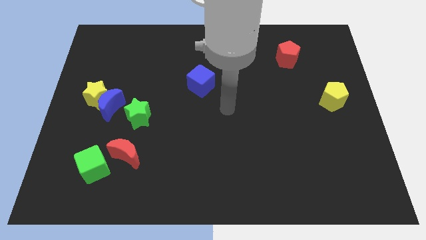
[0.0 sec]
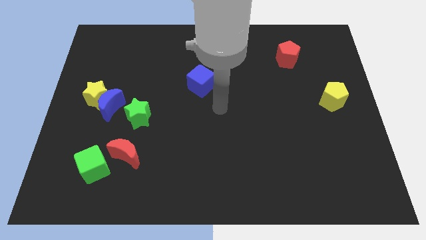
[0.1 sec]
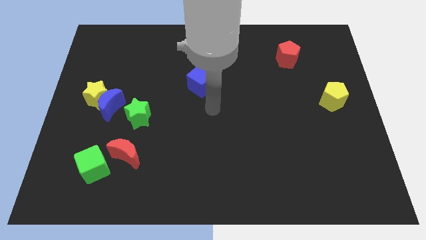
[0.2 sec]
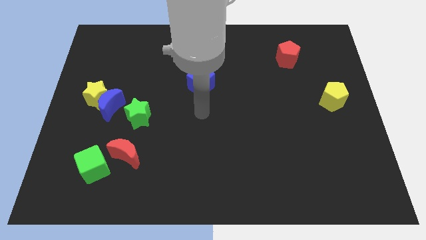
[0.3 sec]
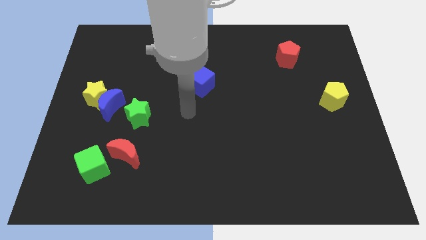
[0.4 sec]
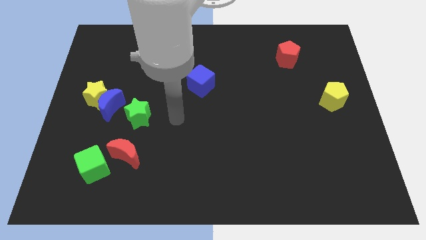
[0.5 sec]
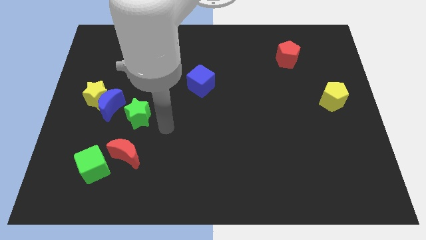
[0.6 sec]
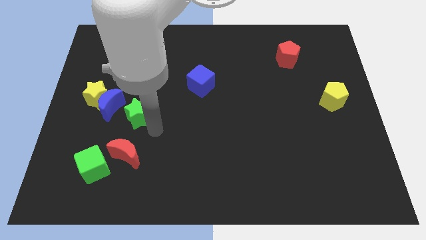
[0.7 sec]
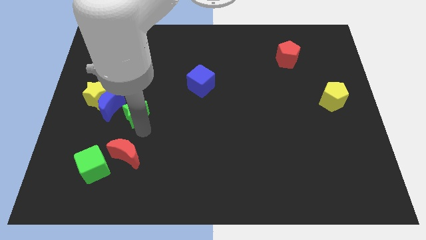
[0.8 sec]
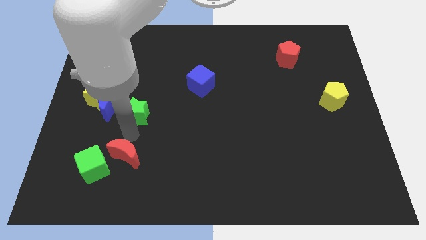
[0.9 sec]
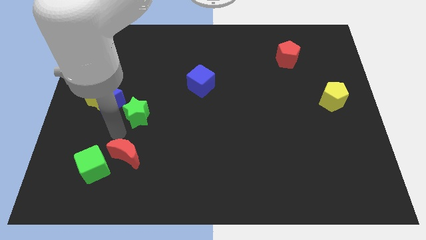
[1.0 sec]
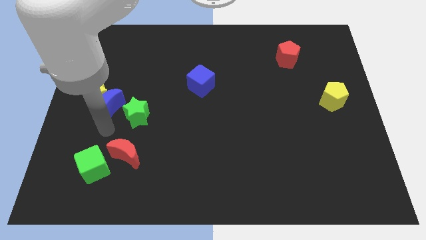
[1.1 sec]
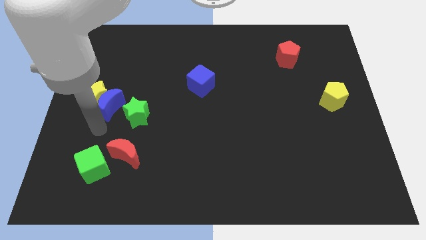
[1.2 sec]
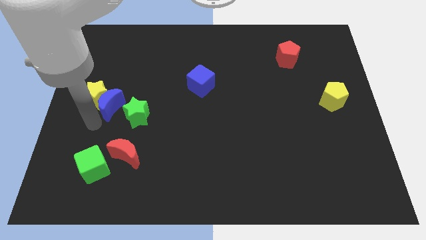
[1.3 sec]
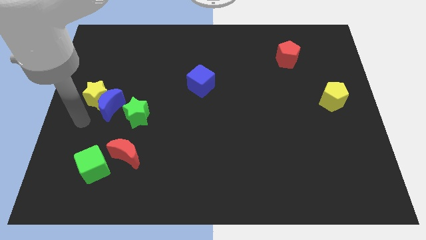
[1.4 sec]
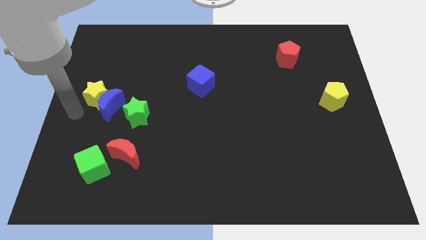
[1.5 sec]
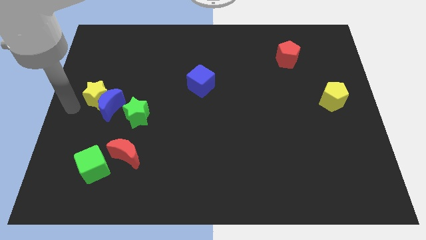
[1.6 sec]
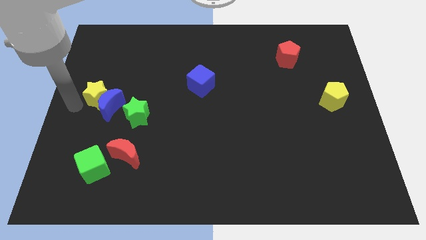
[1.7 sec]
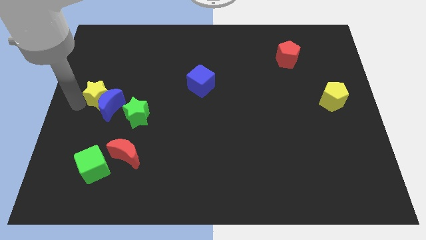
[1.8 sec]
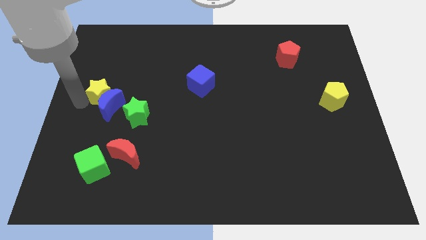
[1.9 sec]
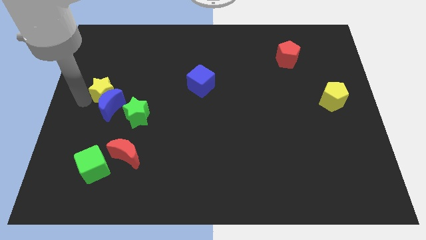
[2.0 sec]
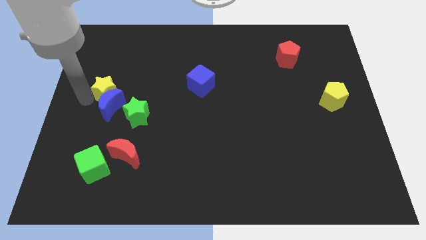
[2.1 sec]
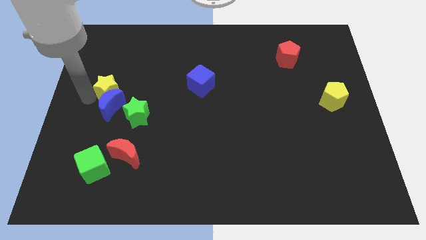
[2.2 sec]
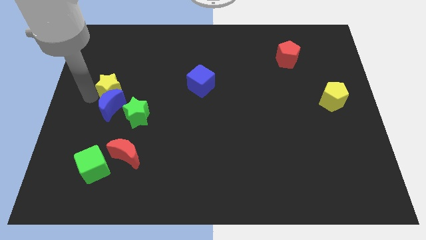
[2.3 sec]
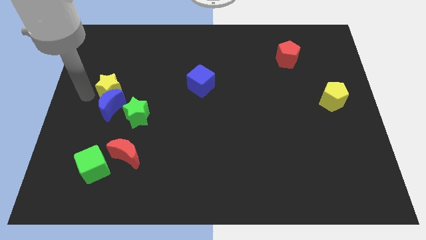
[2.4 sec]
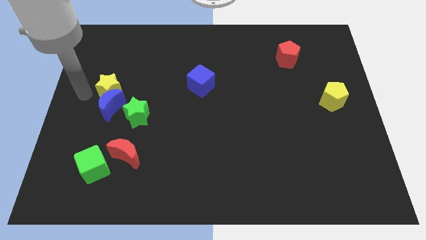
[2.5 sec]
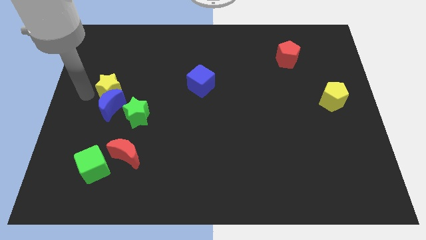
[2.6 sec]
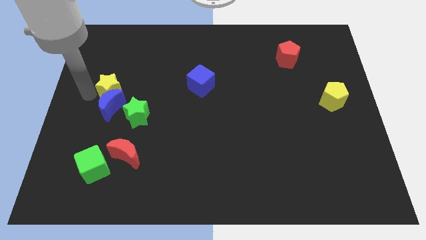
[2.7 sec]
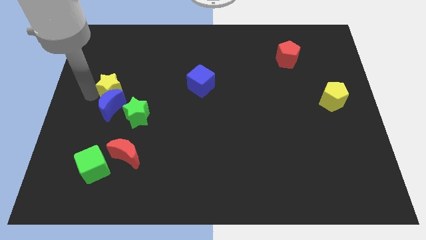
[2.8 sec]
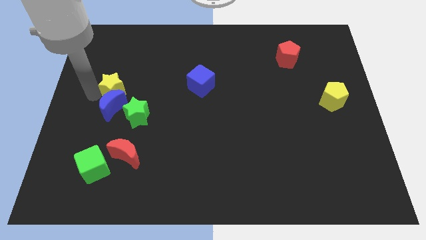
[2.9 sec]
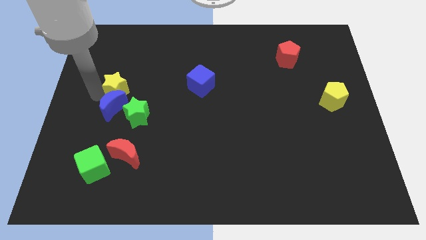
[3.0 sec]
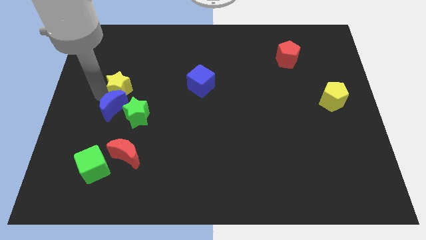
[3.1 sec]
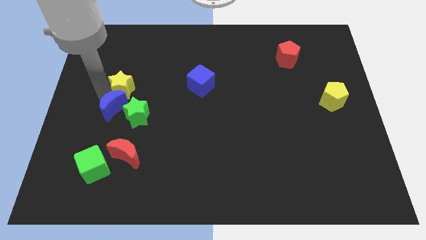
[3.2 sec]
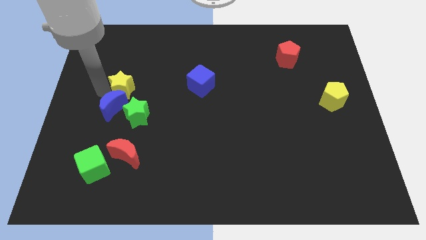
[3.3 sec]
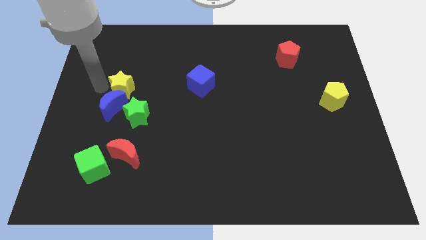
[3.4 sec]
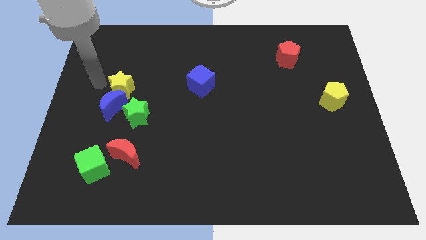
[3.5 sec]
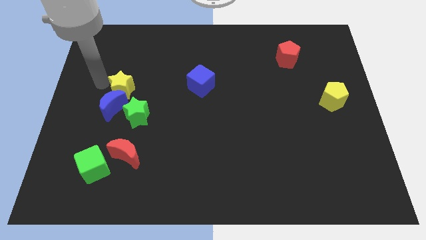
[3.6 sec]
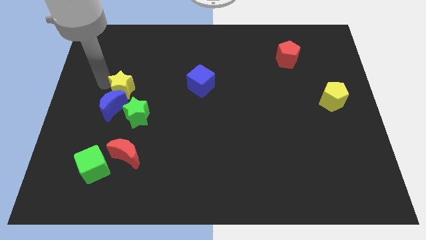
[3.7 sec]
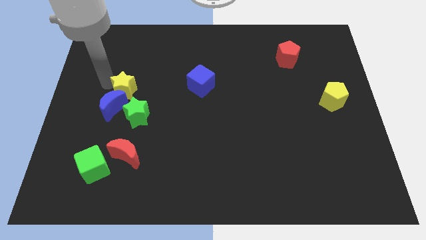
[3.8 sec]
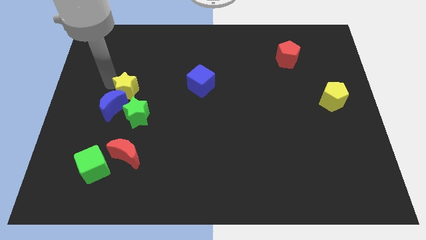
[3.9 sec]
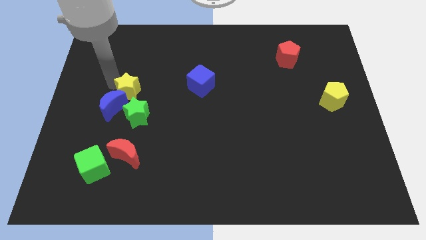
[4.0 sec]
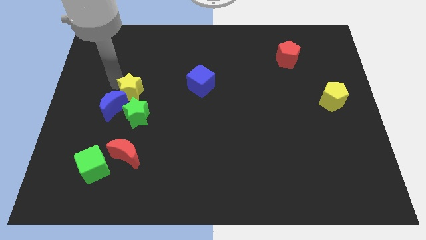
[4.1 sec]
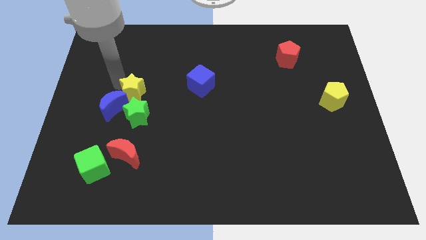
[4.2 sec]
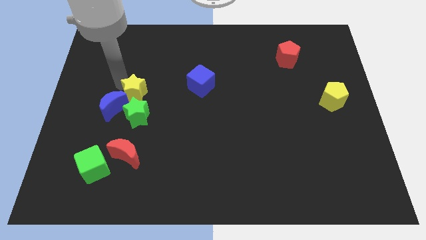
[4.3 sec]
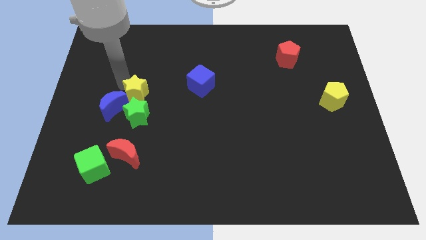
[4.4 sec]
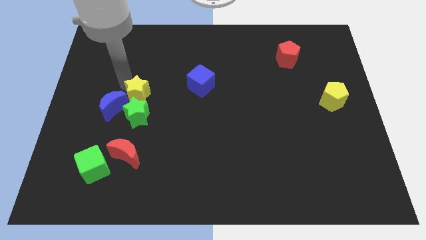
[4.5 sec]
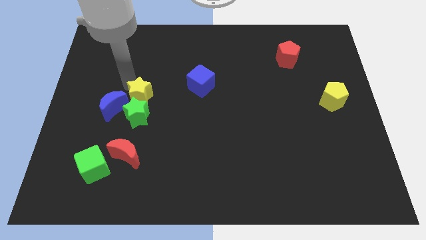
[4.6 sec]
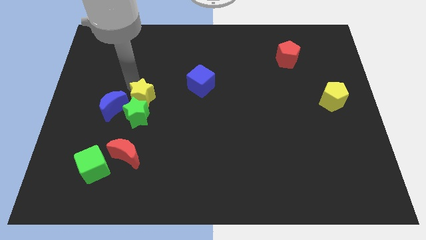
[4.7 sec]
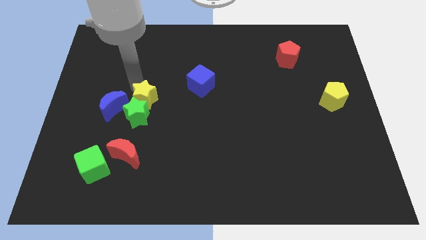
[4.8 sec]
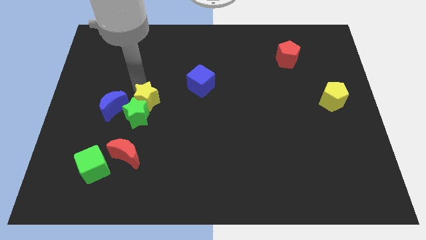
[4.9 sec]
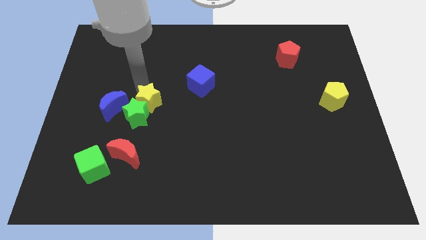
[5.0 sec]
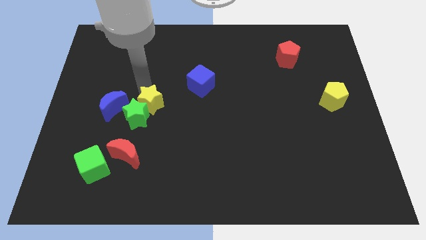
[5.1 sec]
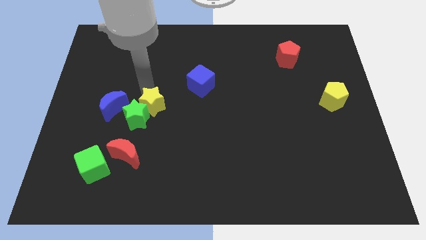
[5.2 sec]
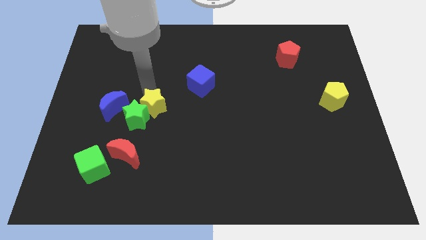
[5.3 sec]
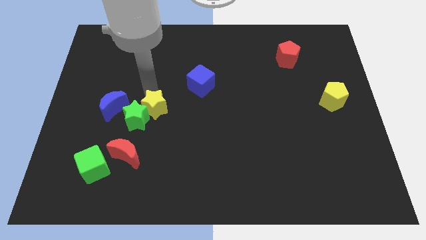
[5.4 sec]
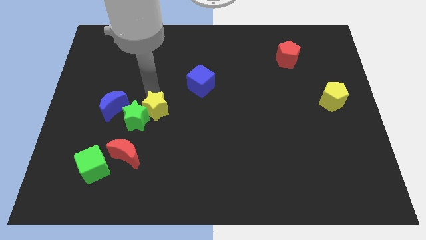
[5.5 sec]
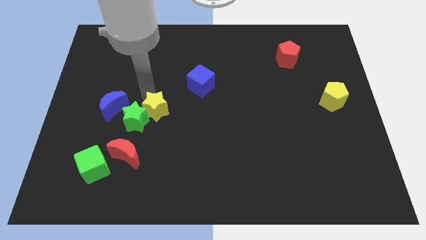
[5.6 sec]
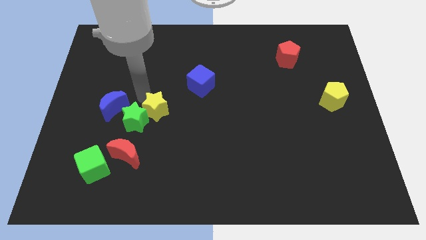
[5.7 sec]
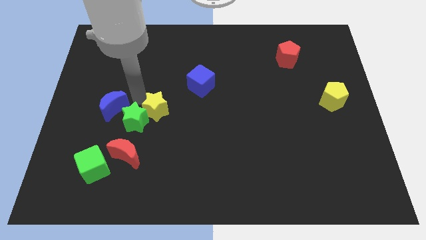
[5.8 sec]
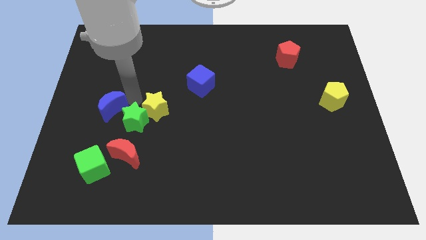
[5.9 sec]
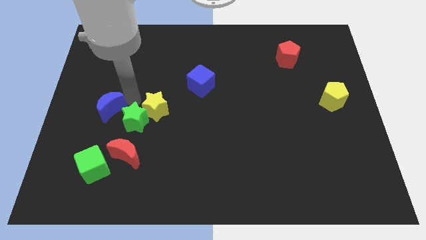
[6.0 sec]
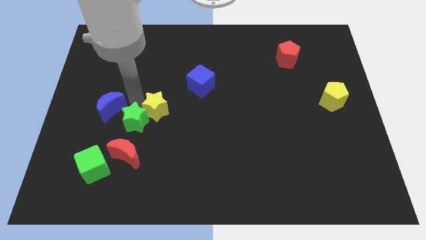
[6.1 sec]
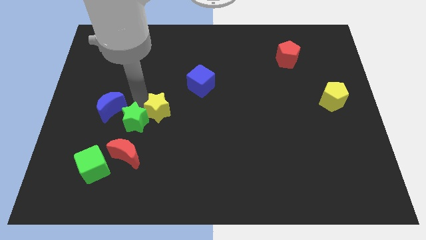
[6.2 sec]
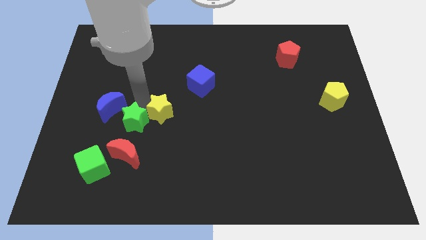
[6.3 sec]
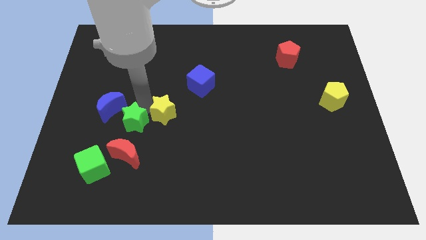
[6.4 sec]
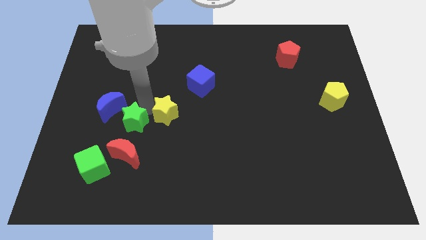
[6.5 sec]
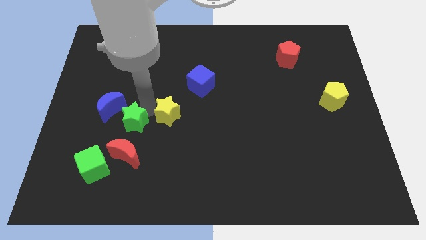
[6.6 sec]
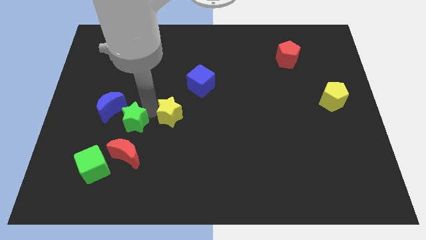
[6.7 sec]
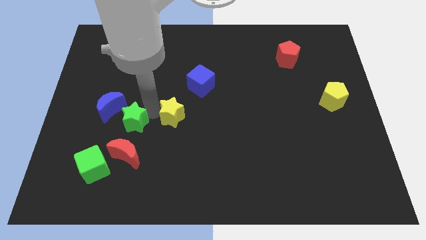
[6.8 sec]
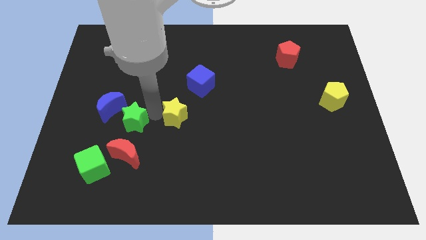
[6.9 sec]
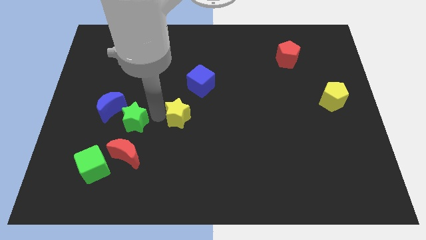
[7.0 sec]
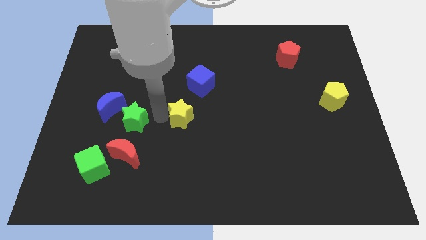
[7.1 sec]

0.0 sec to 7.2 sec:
slide the yellow star to the bottom side of the blue cube

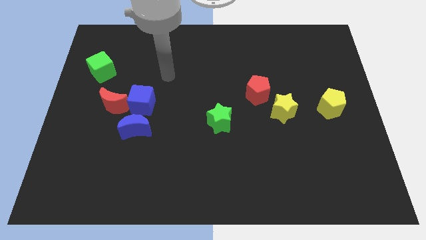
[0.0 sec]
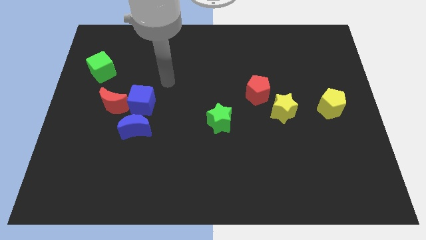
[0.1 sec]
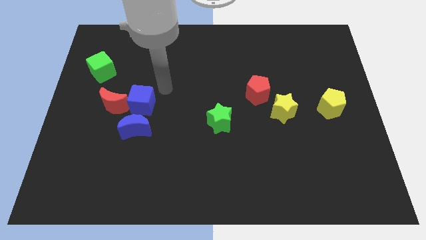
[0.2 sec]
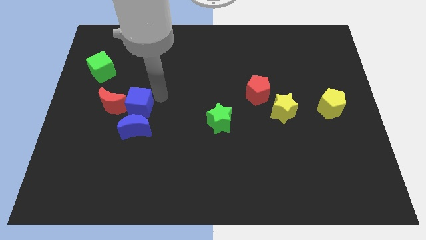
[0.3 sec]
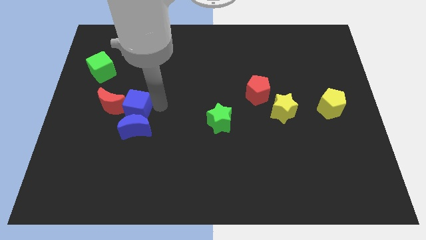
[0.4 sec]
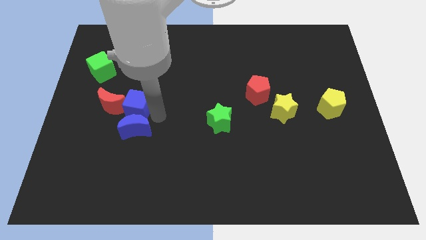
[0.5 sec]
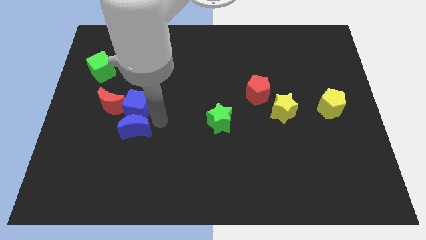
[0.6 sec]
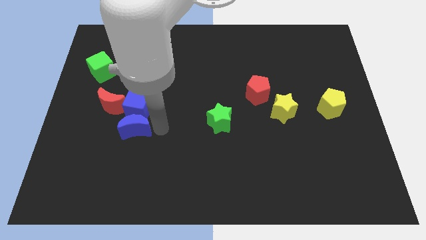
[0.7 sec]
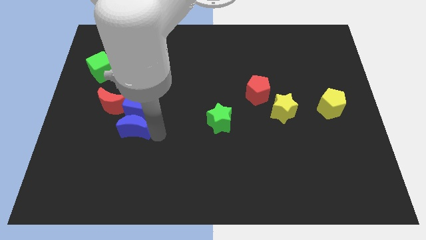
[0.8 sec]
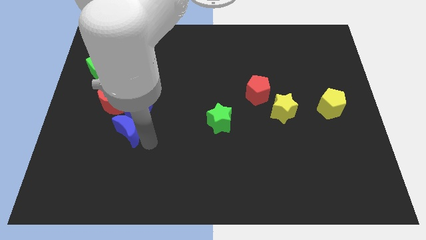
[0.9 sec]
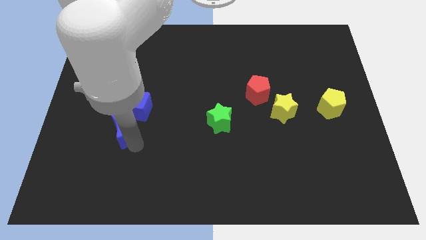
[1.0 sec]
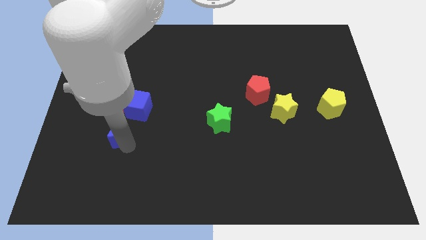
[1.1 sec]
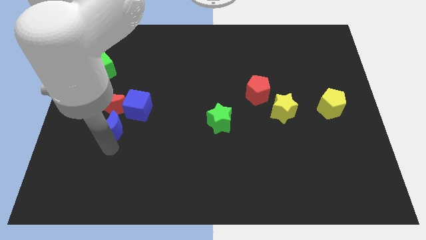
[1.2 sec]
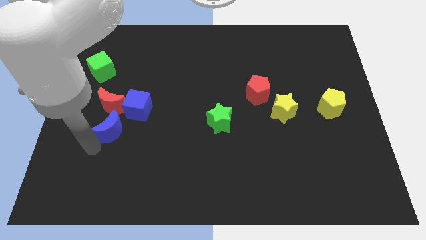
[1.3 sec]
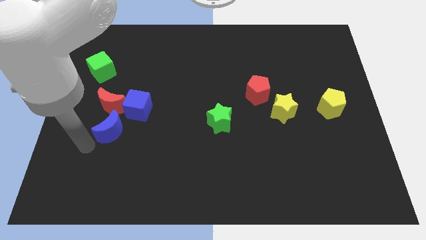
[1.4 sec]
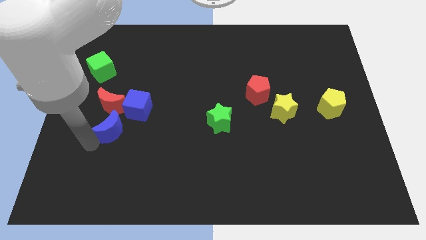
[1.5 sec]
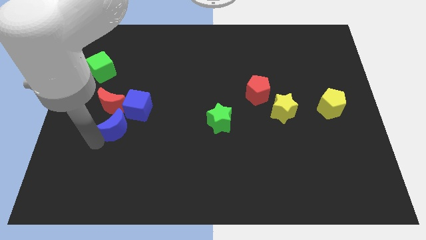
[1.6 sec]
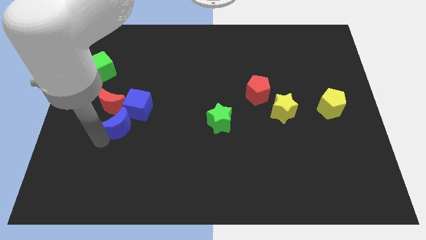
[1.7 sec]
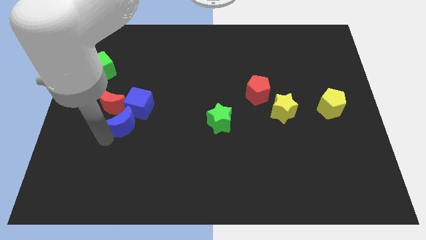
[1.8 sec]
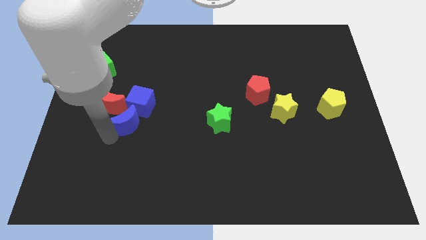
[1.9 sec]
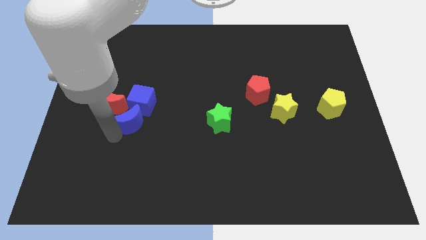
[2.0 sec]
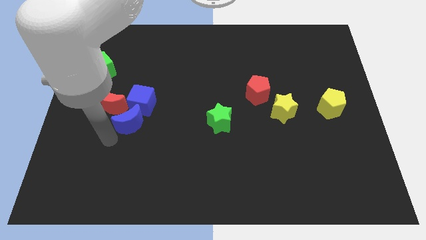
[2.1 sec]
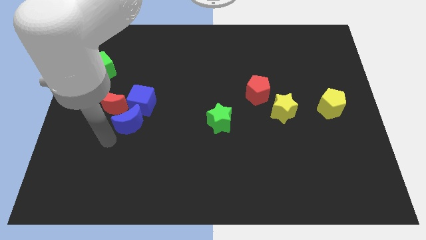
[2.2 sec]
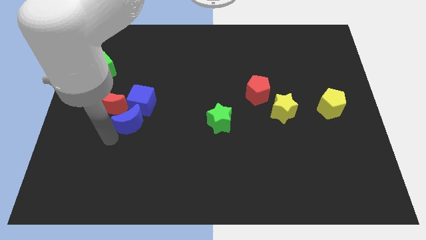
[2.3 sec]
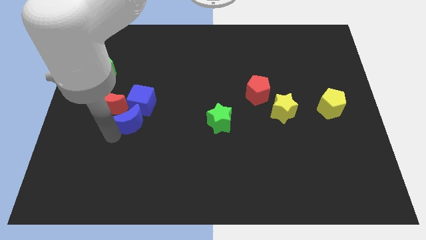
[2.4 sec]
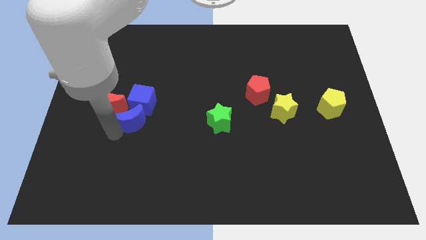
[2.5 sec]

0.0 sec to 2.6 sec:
slide the blue moon to the right of the red moon
